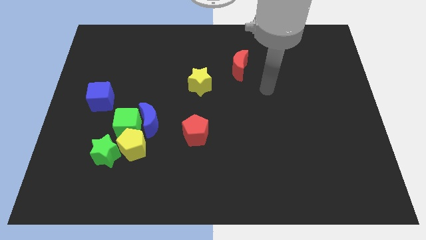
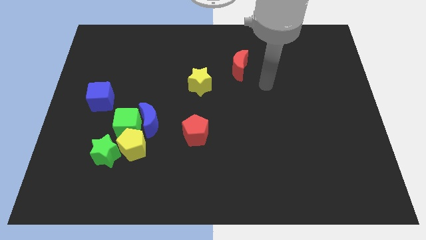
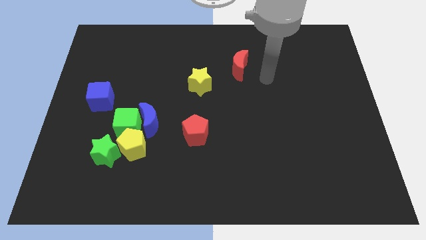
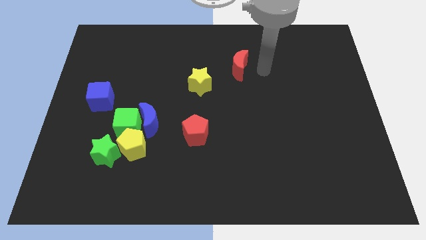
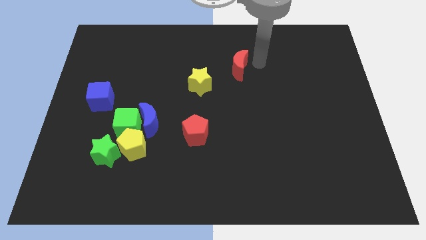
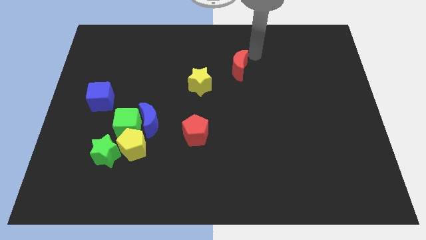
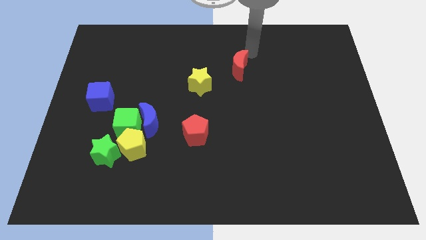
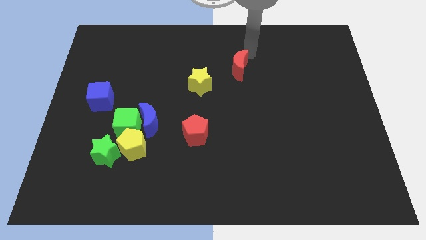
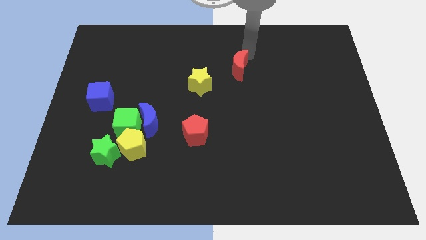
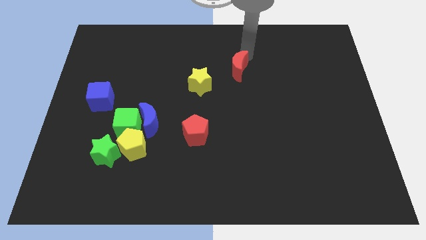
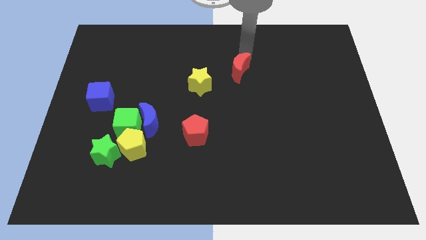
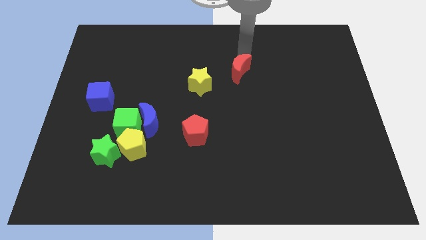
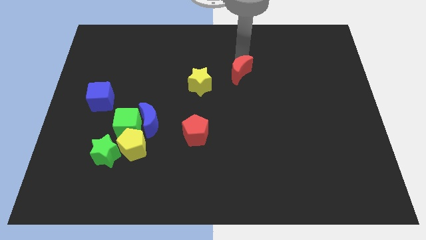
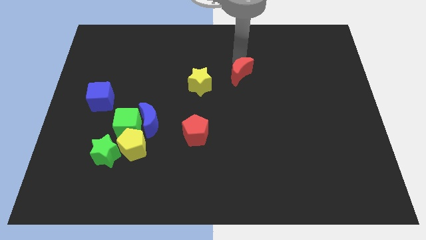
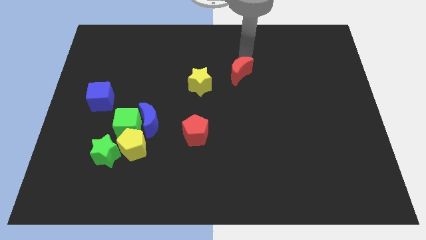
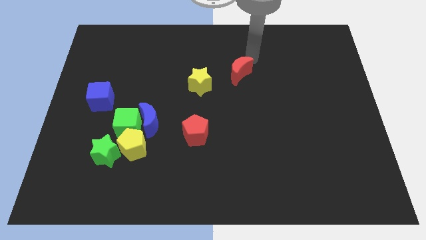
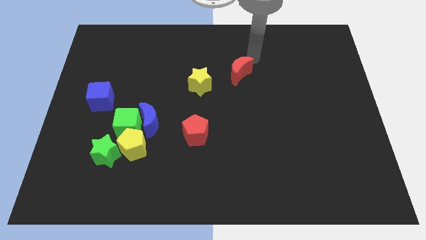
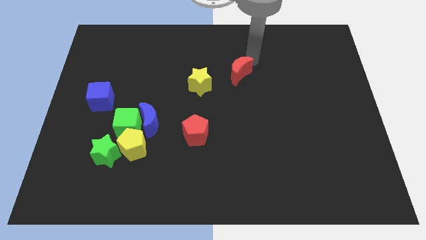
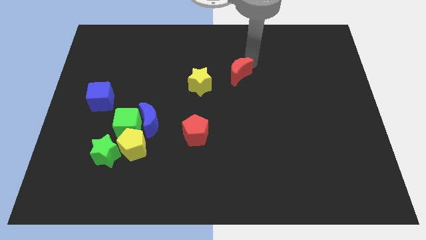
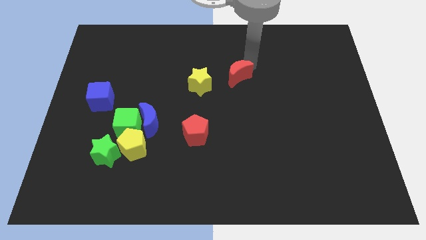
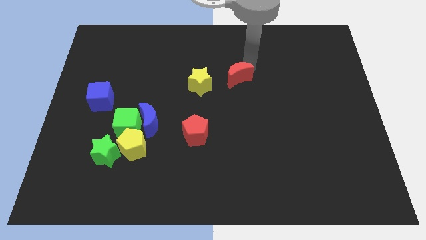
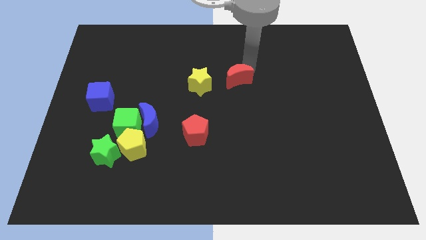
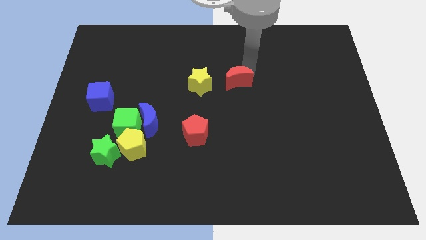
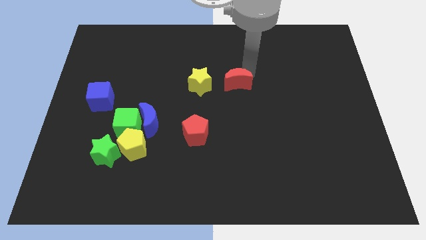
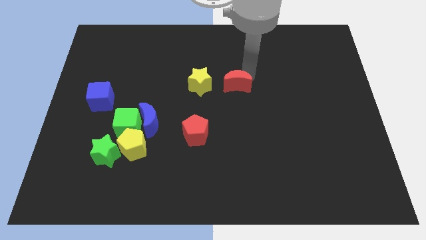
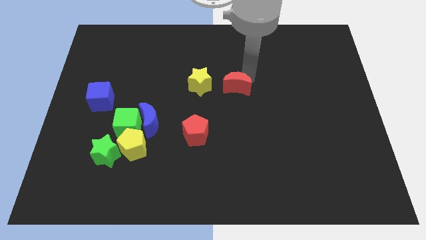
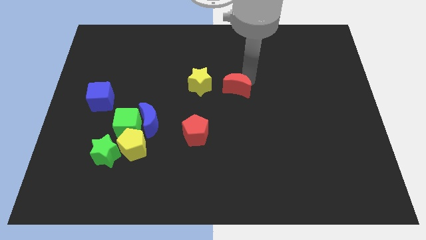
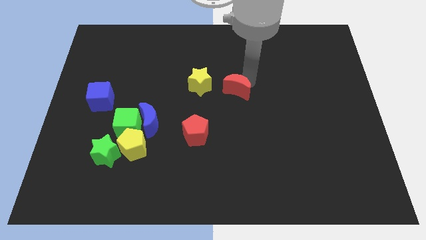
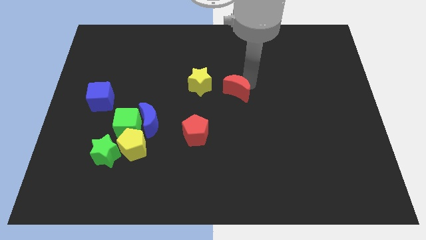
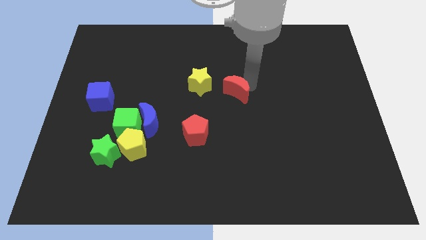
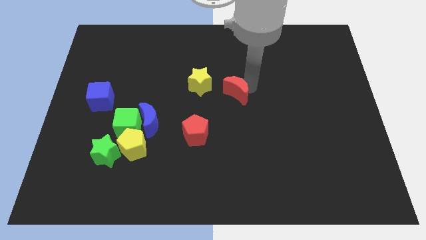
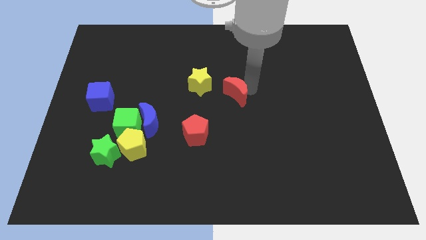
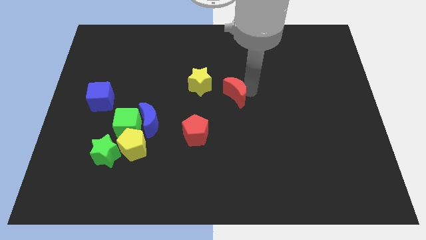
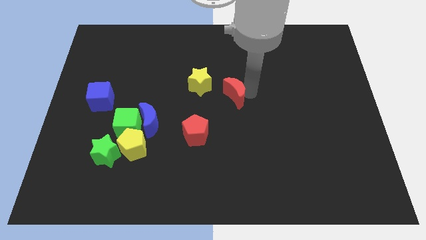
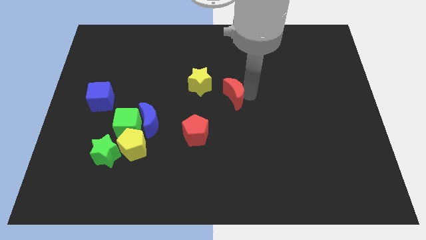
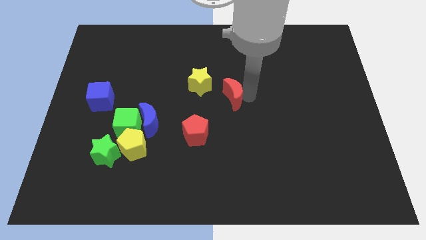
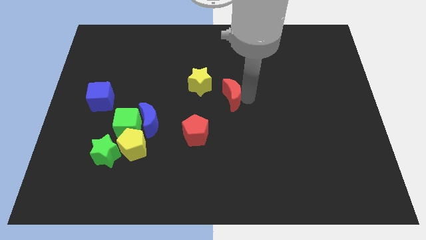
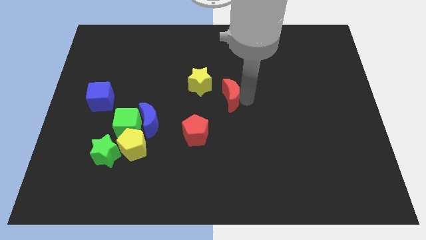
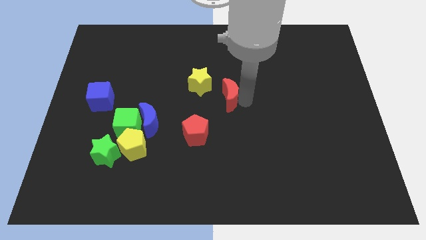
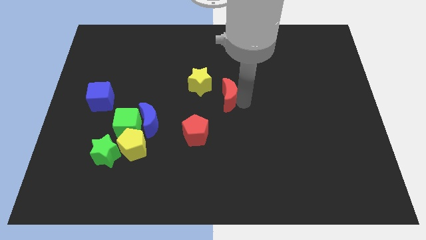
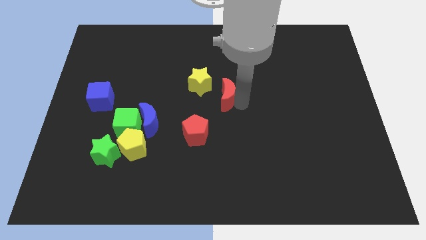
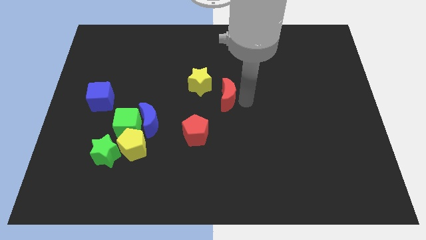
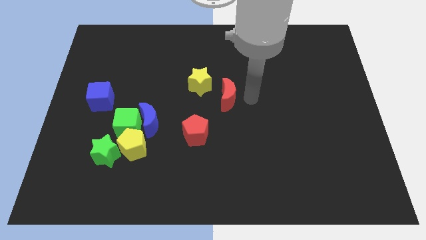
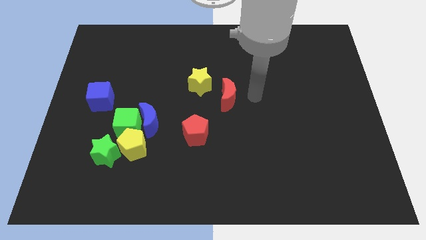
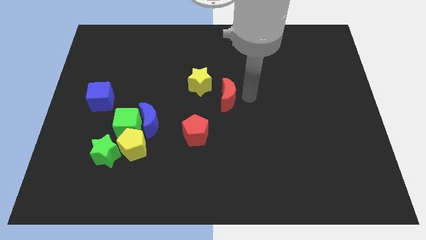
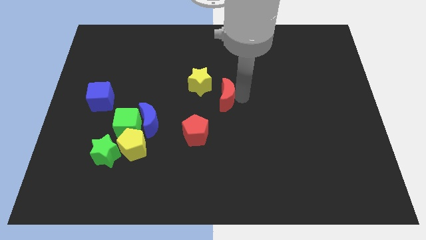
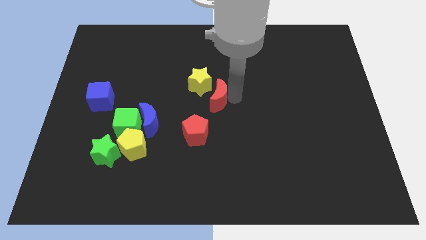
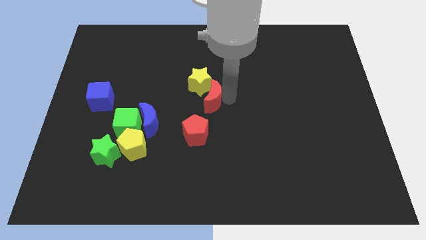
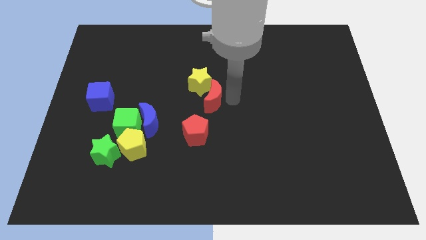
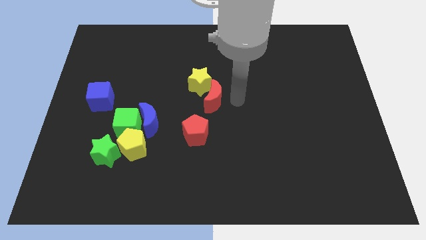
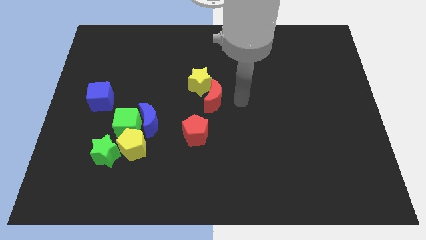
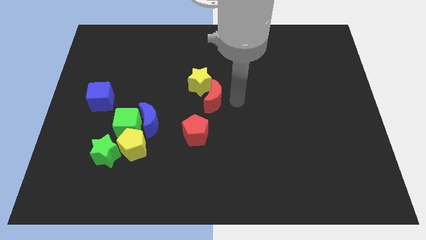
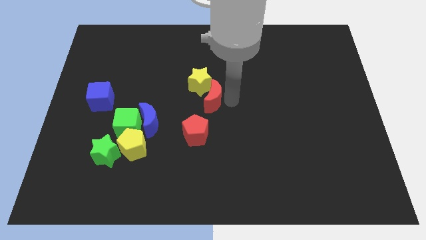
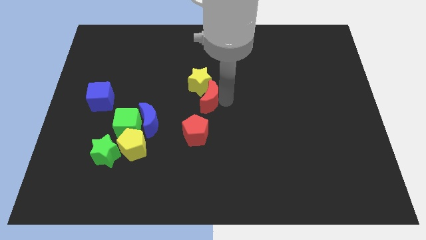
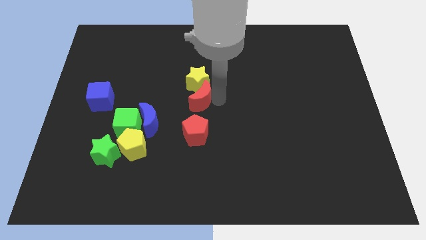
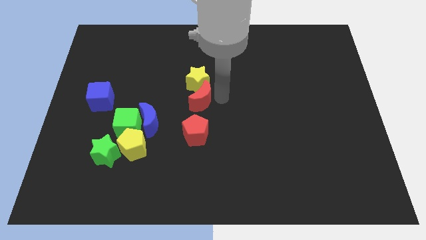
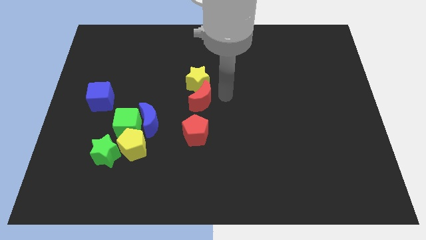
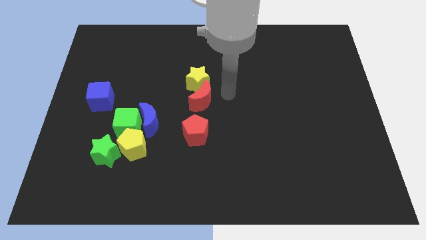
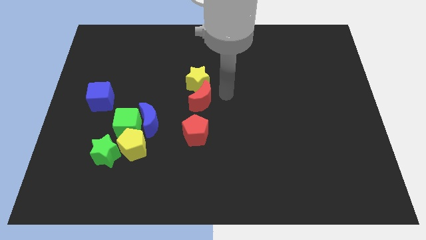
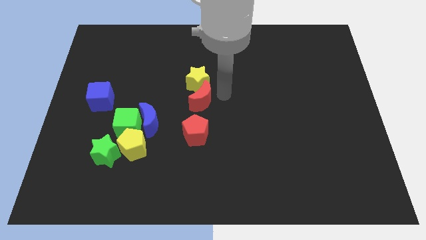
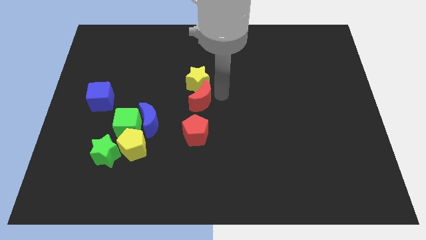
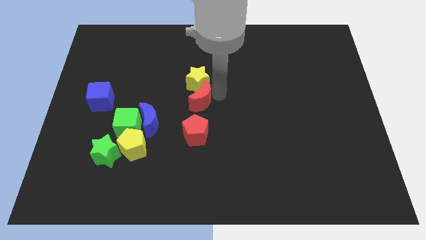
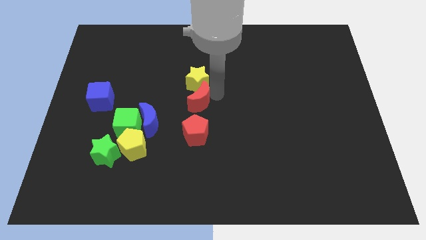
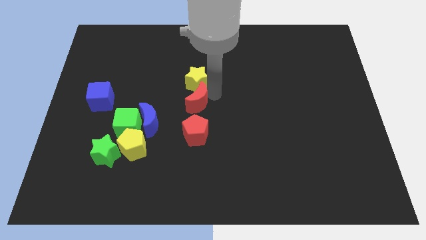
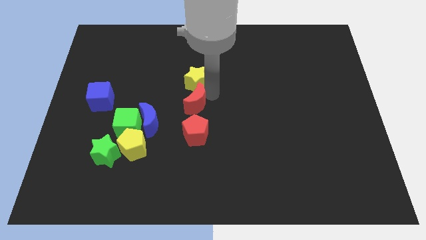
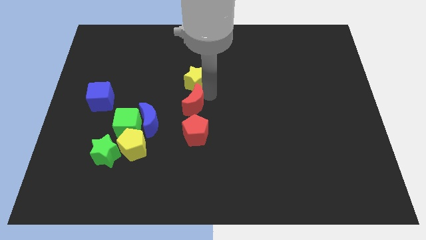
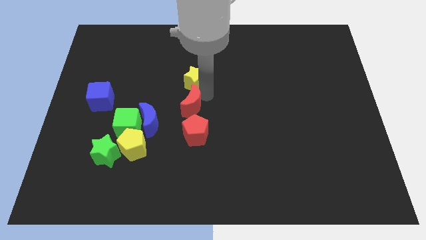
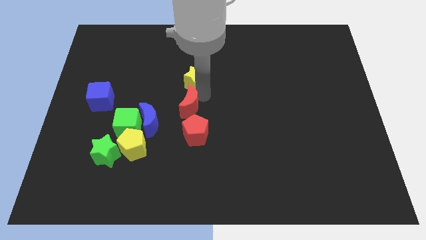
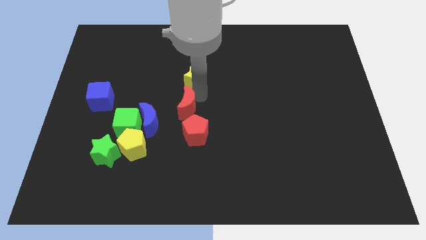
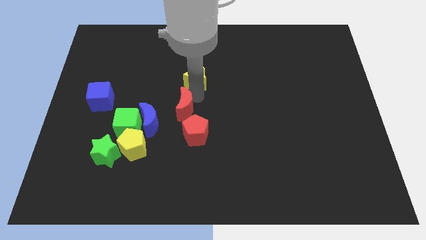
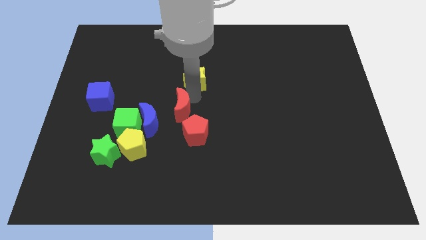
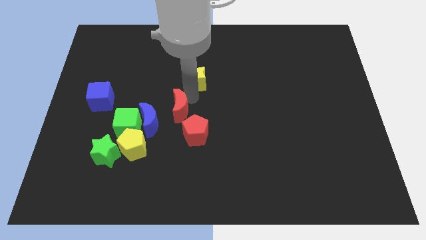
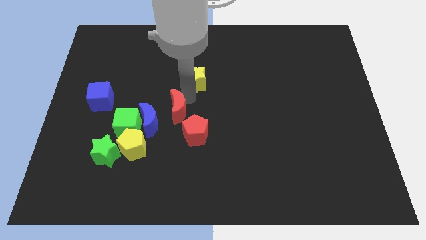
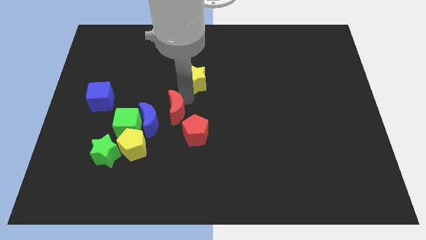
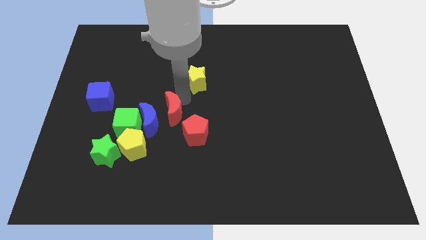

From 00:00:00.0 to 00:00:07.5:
put the red moon next to the blue moon
